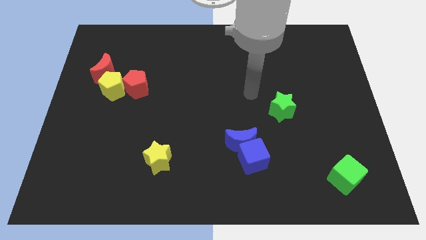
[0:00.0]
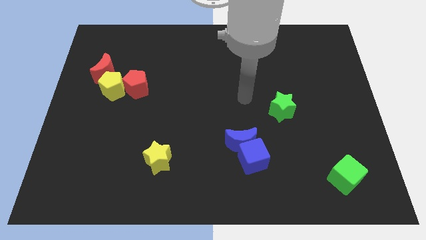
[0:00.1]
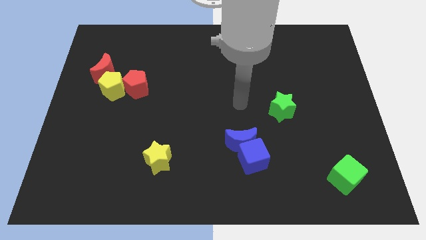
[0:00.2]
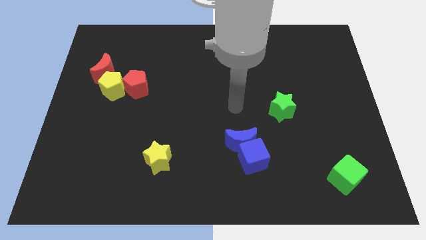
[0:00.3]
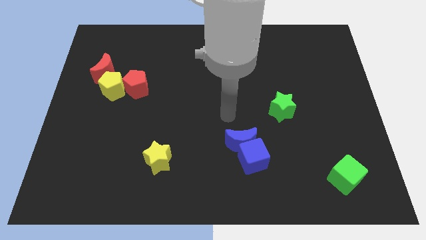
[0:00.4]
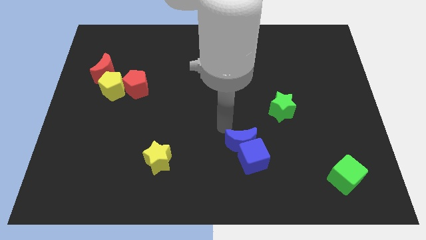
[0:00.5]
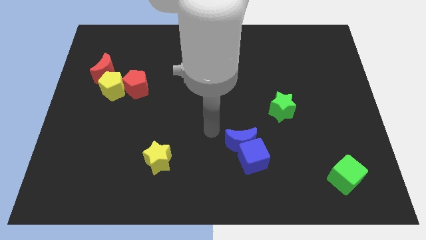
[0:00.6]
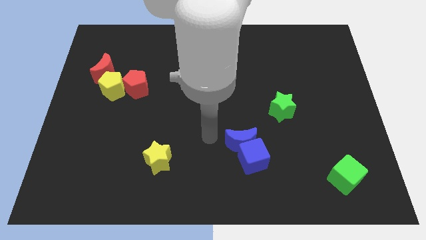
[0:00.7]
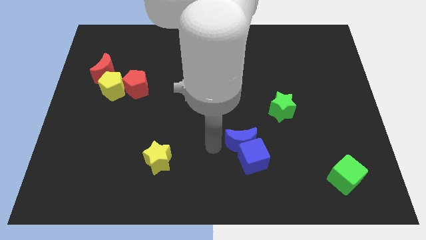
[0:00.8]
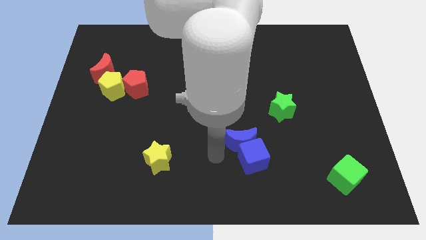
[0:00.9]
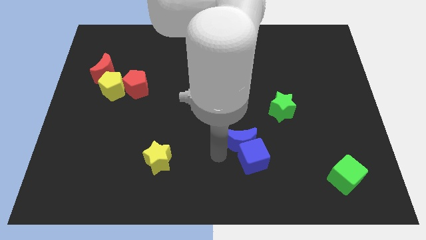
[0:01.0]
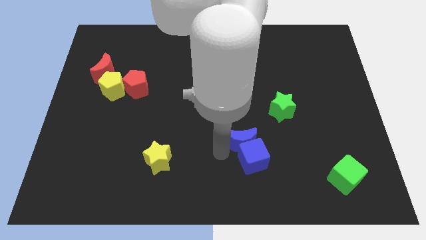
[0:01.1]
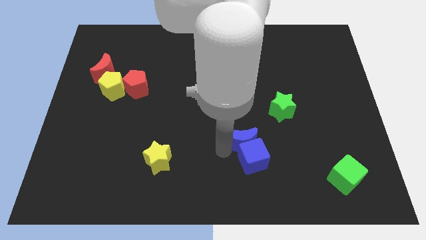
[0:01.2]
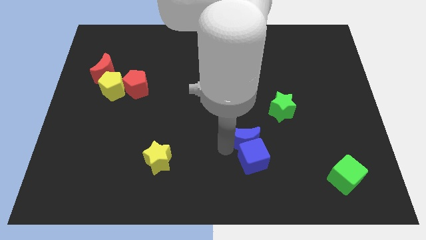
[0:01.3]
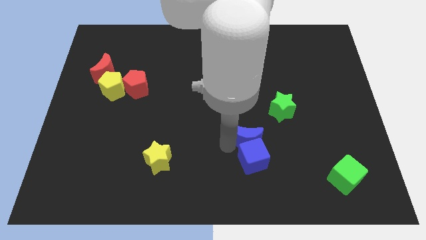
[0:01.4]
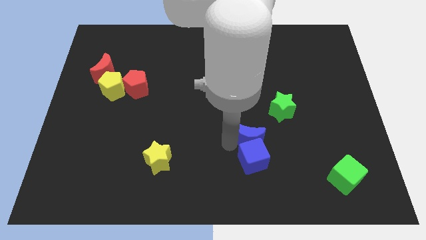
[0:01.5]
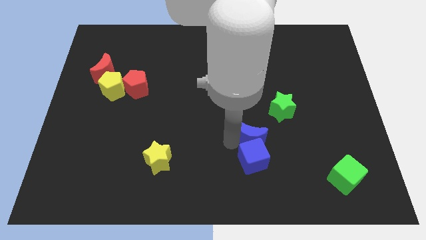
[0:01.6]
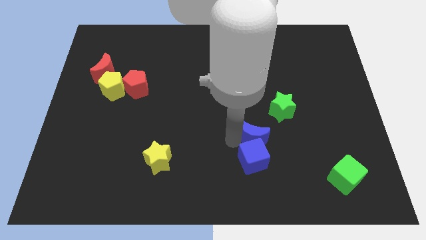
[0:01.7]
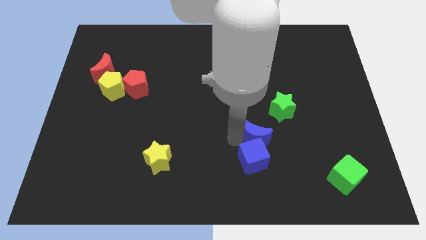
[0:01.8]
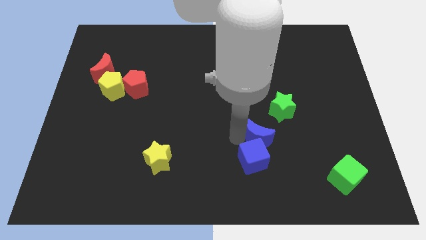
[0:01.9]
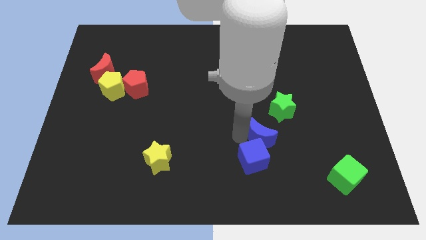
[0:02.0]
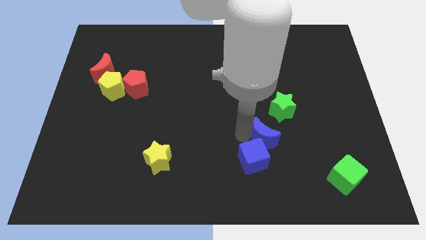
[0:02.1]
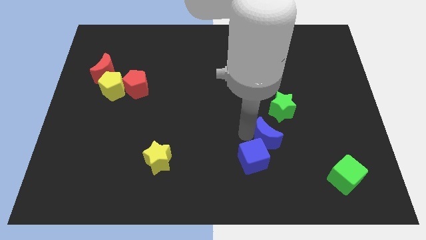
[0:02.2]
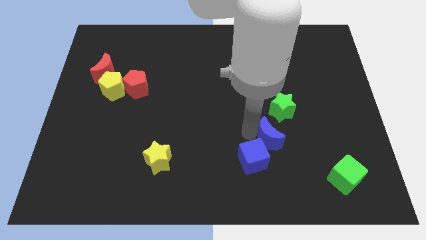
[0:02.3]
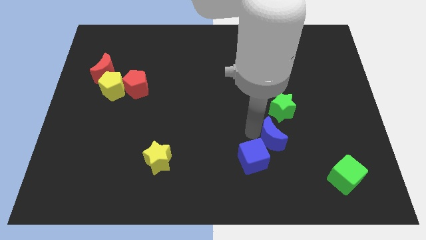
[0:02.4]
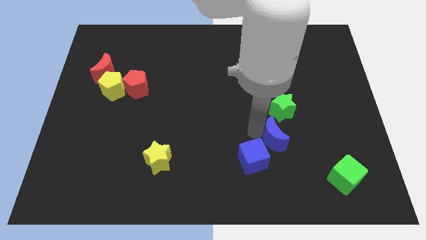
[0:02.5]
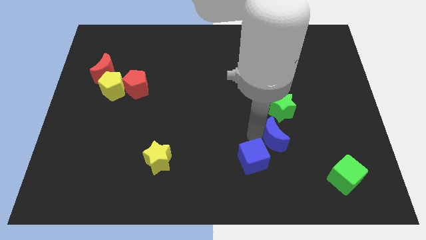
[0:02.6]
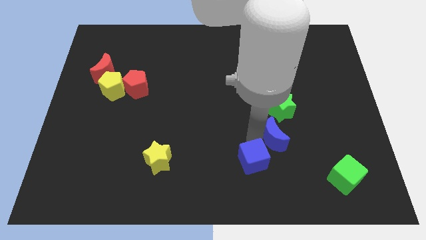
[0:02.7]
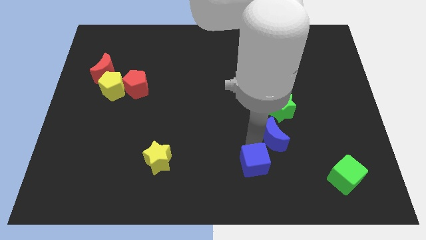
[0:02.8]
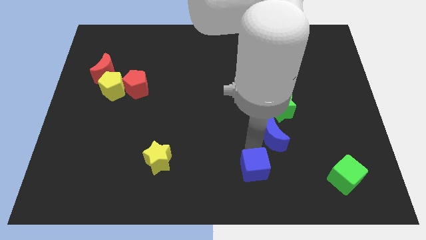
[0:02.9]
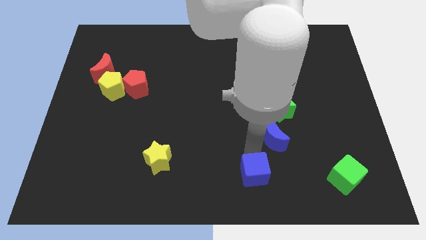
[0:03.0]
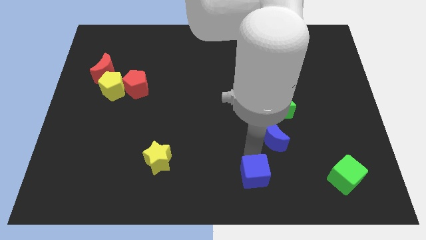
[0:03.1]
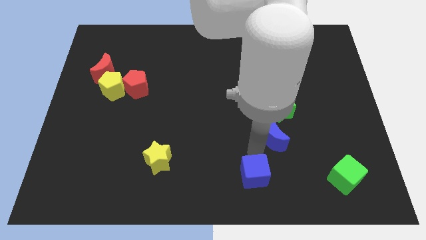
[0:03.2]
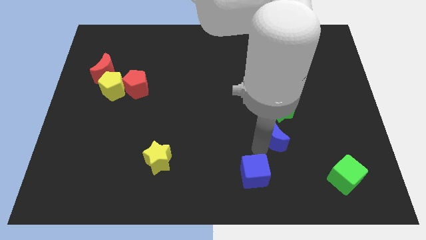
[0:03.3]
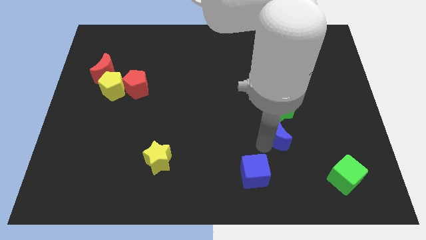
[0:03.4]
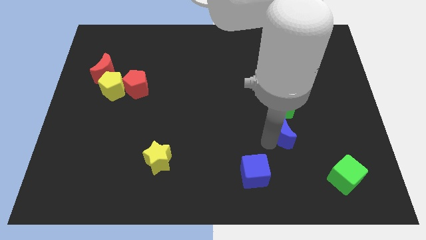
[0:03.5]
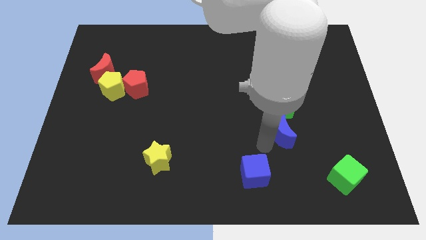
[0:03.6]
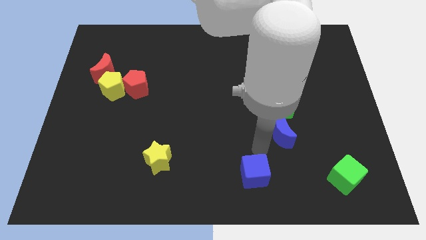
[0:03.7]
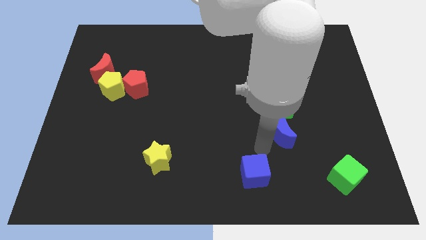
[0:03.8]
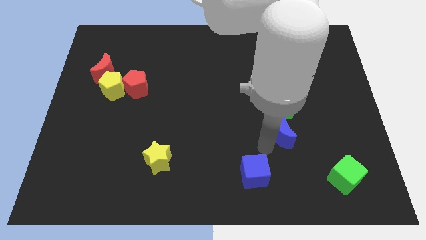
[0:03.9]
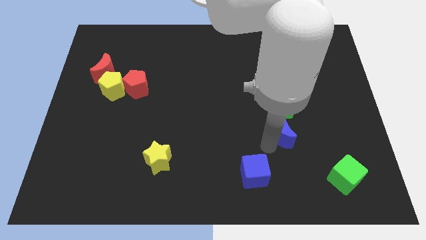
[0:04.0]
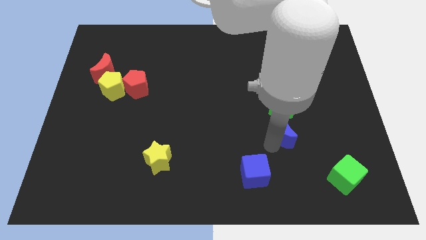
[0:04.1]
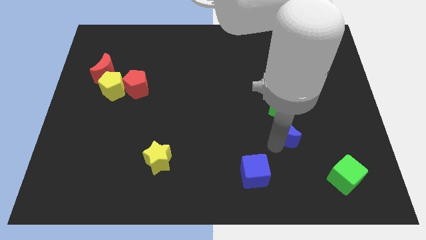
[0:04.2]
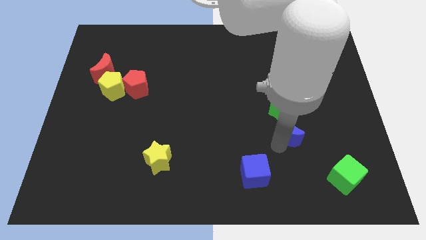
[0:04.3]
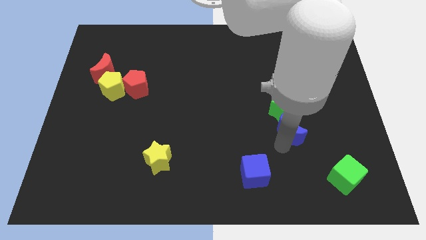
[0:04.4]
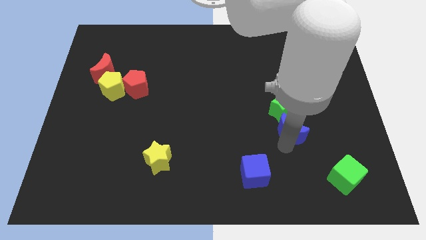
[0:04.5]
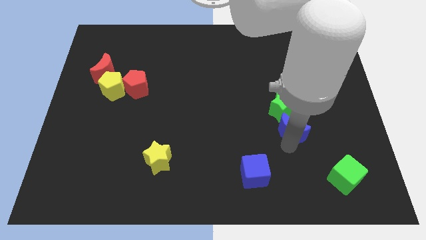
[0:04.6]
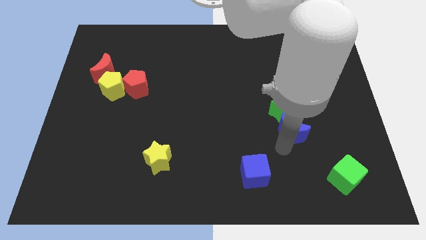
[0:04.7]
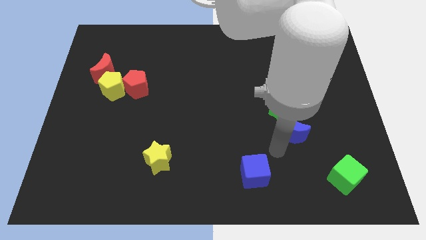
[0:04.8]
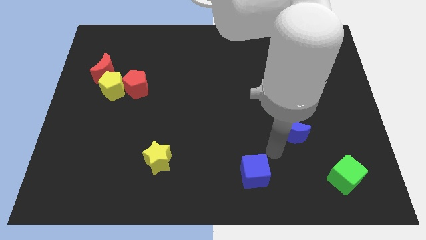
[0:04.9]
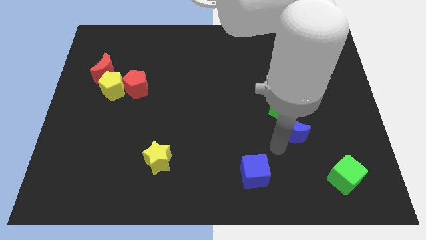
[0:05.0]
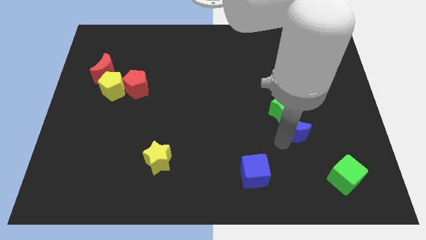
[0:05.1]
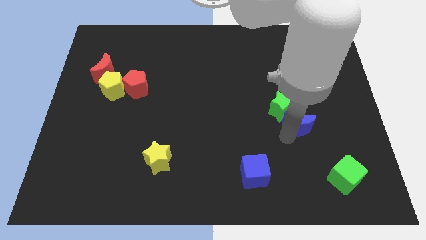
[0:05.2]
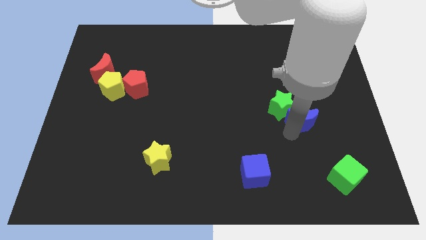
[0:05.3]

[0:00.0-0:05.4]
put the blue moon to the right side of the green star

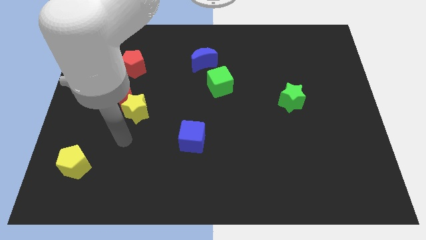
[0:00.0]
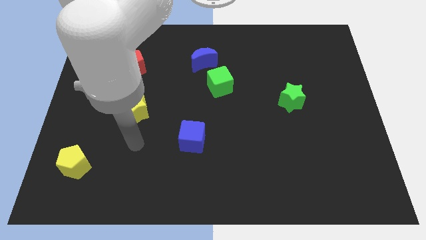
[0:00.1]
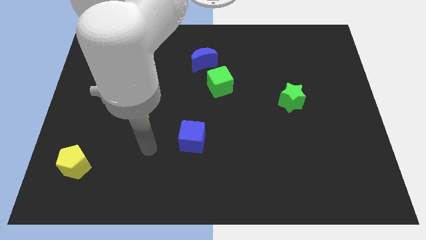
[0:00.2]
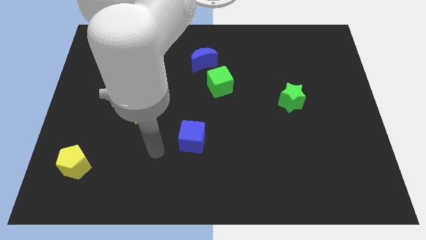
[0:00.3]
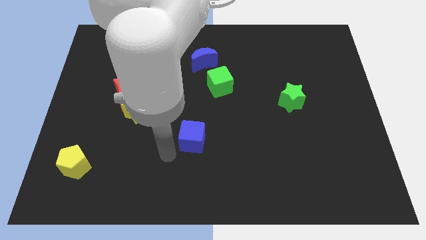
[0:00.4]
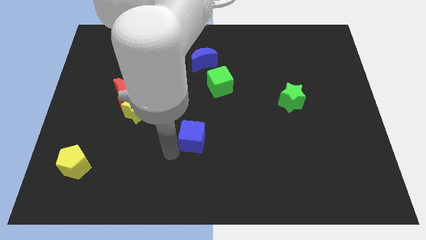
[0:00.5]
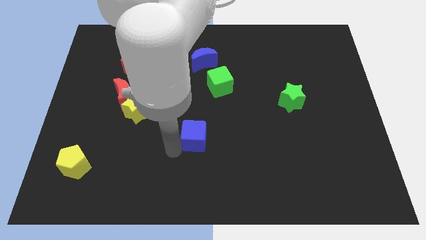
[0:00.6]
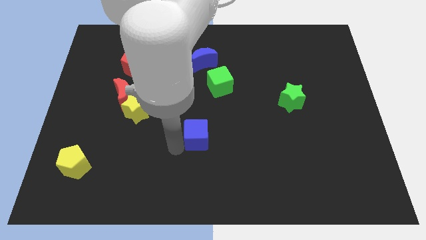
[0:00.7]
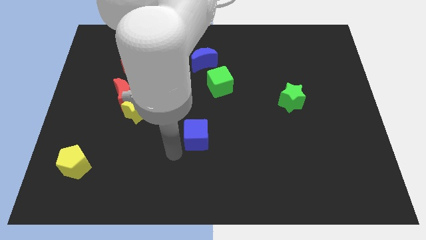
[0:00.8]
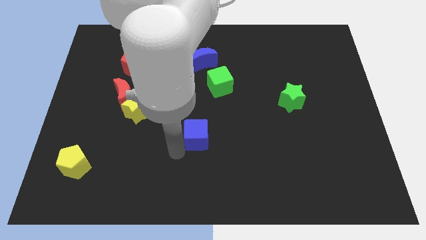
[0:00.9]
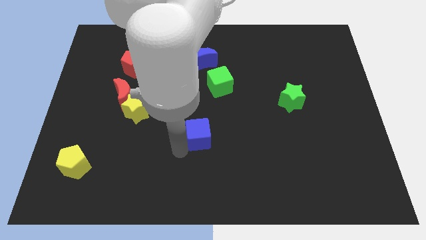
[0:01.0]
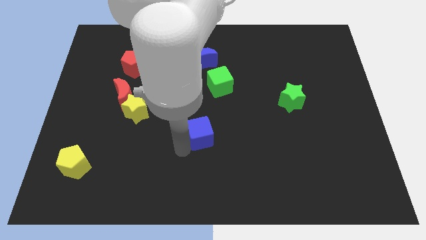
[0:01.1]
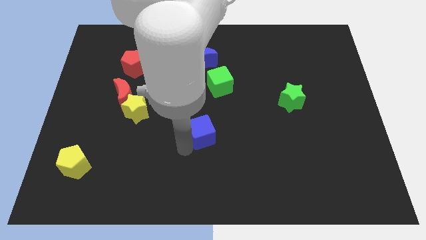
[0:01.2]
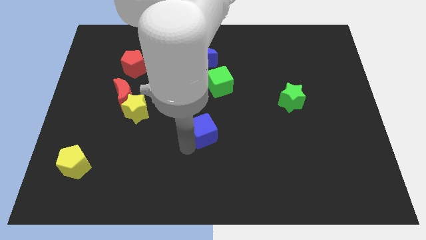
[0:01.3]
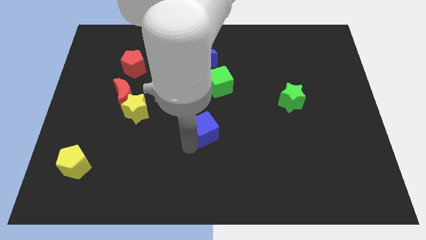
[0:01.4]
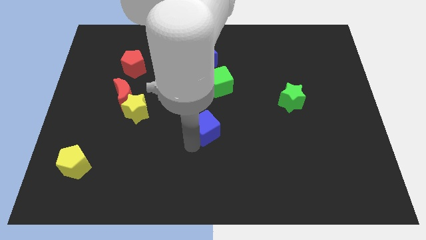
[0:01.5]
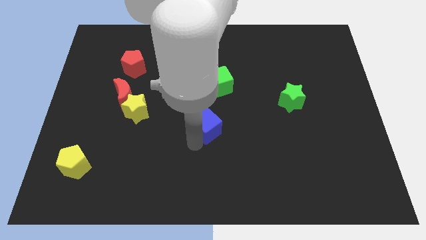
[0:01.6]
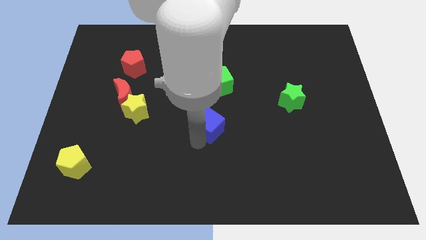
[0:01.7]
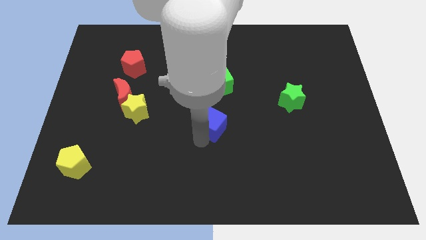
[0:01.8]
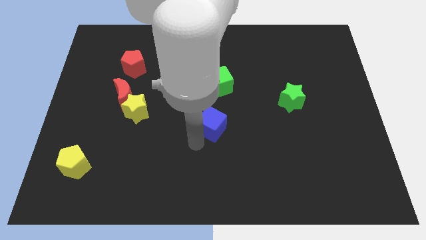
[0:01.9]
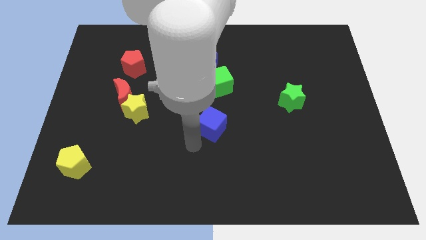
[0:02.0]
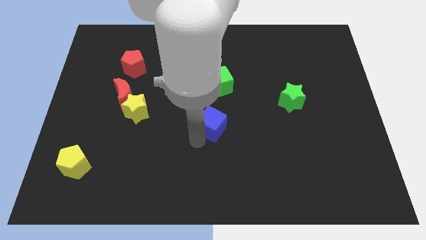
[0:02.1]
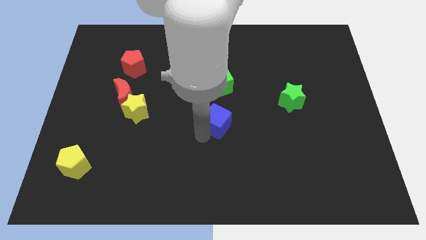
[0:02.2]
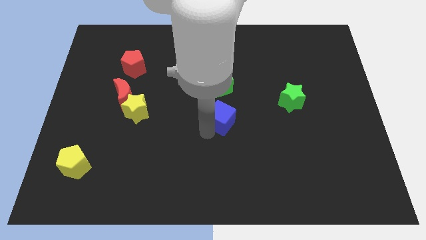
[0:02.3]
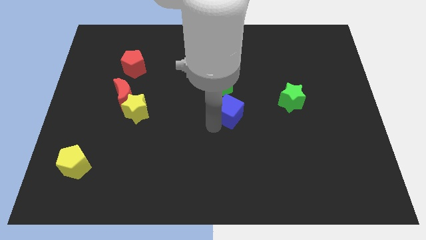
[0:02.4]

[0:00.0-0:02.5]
slide the blue cube to the left side of the green star
